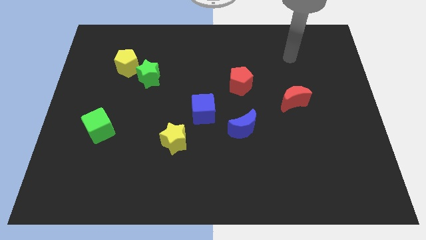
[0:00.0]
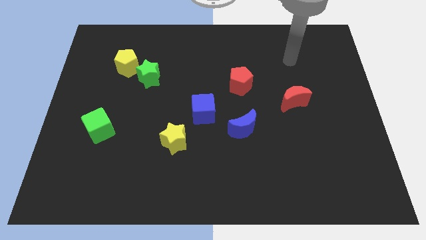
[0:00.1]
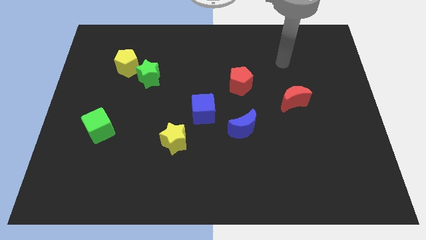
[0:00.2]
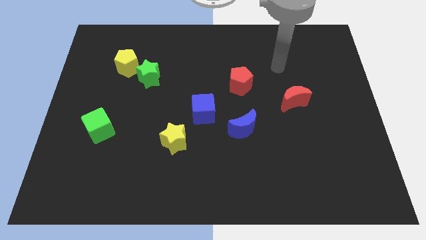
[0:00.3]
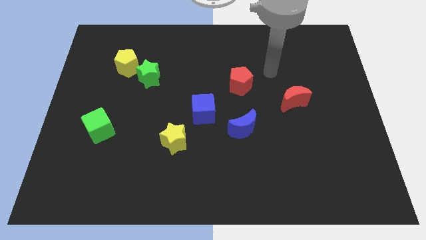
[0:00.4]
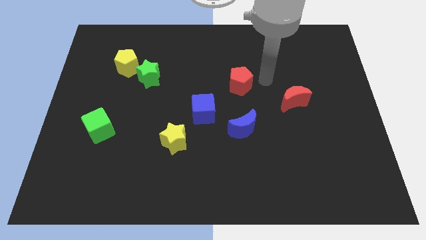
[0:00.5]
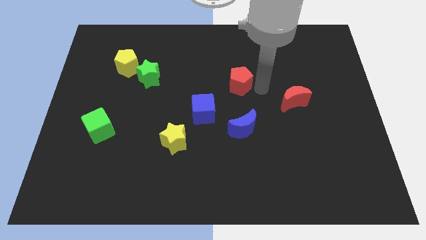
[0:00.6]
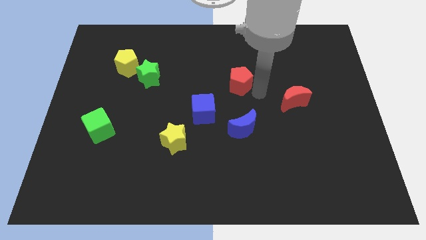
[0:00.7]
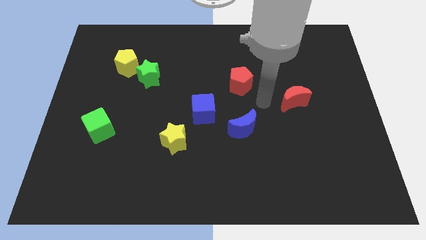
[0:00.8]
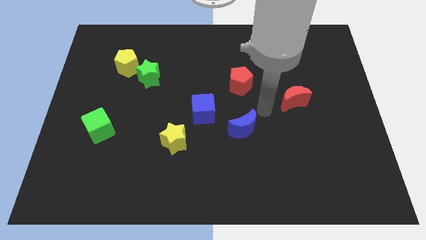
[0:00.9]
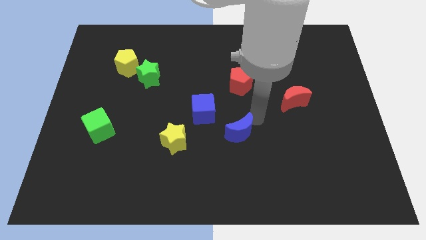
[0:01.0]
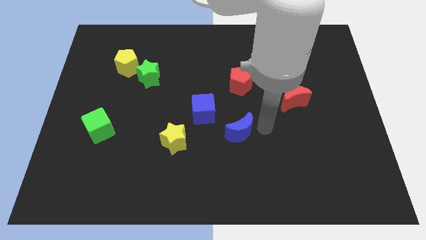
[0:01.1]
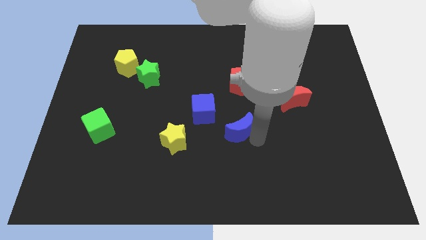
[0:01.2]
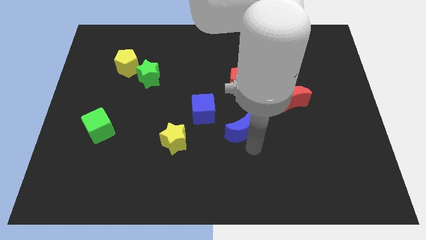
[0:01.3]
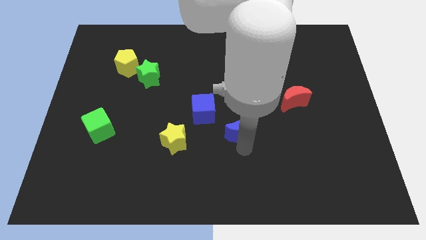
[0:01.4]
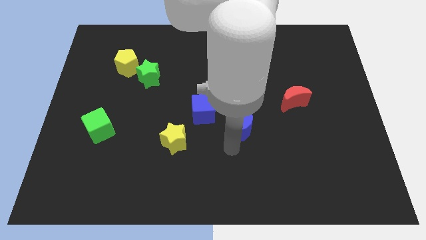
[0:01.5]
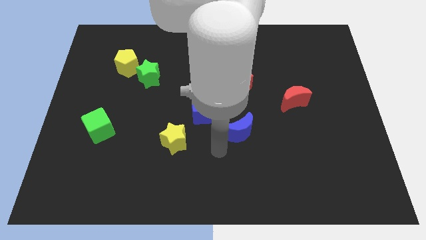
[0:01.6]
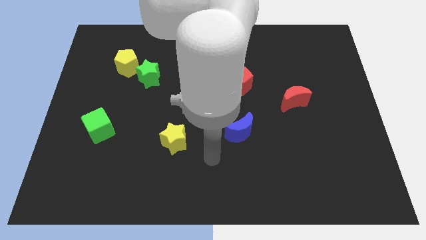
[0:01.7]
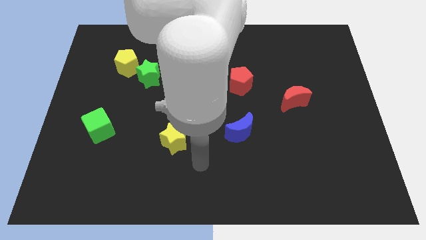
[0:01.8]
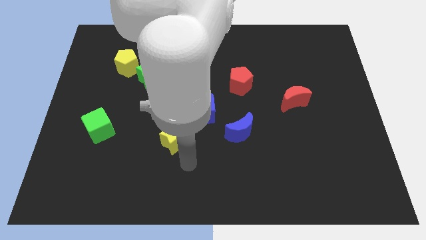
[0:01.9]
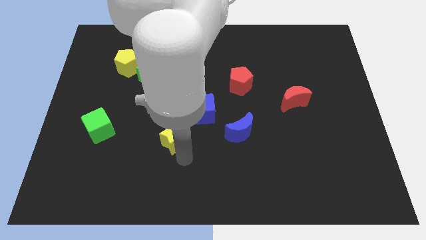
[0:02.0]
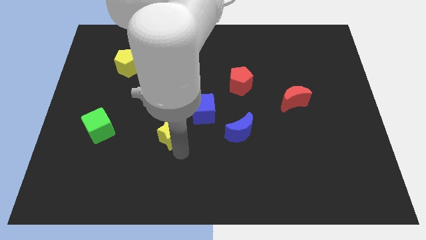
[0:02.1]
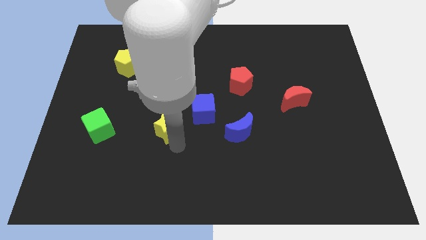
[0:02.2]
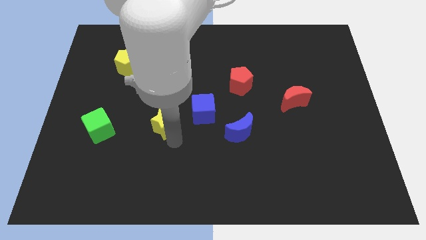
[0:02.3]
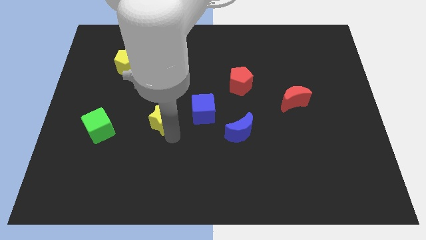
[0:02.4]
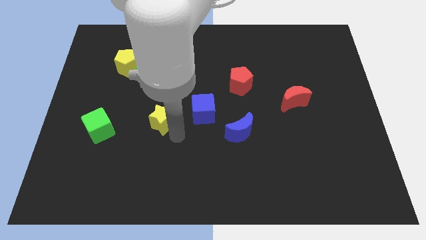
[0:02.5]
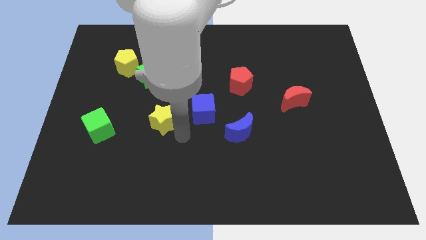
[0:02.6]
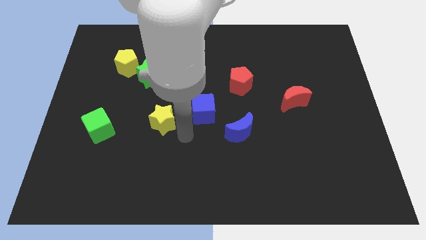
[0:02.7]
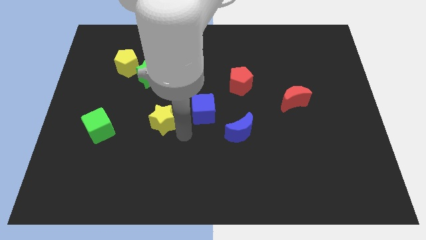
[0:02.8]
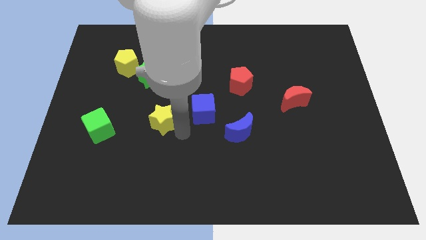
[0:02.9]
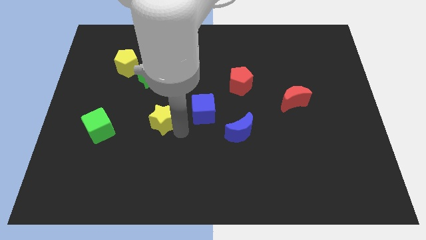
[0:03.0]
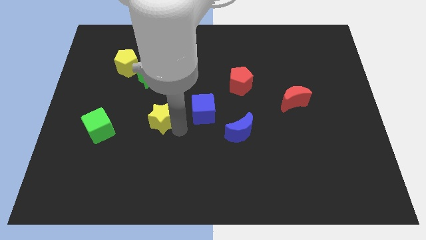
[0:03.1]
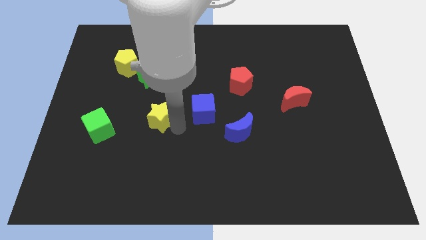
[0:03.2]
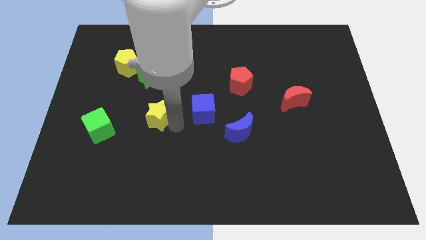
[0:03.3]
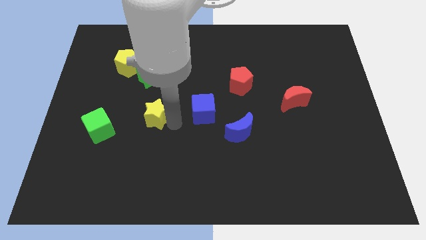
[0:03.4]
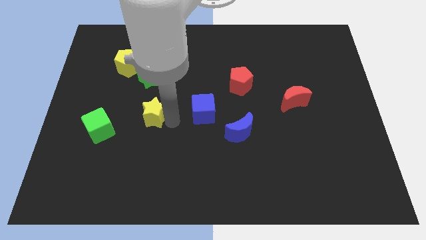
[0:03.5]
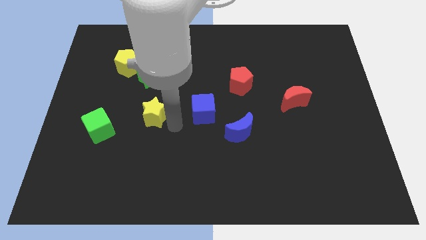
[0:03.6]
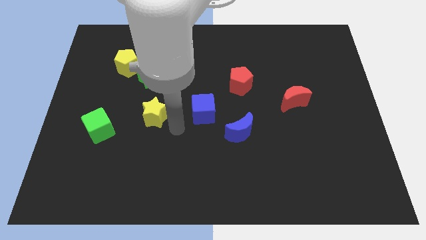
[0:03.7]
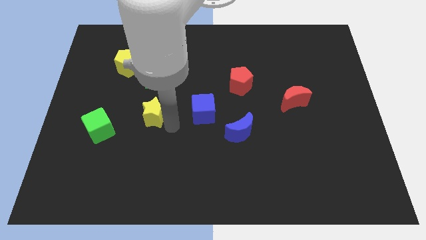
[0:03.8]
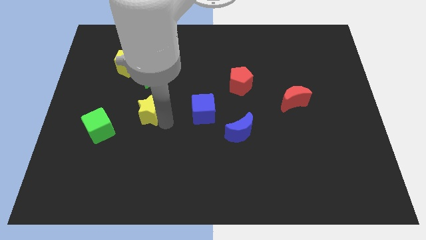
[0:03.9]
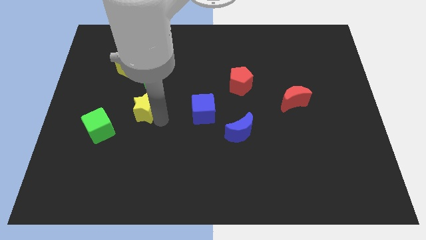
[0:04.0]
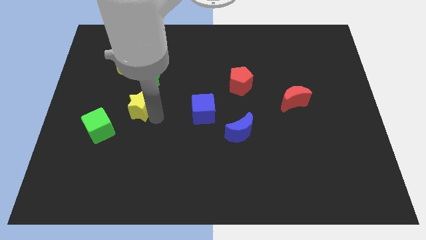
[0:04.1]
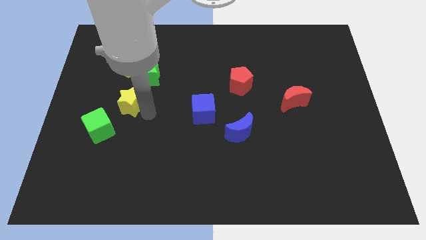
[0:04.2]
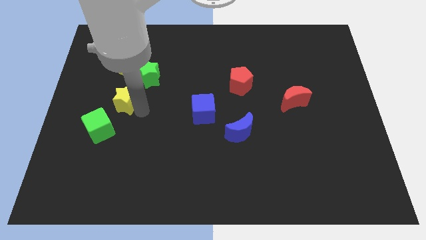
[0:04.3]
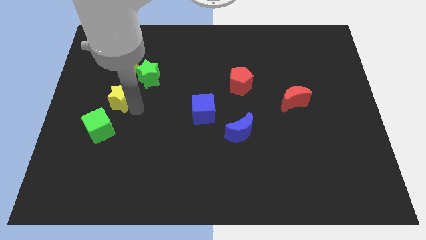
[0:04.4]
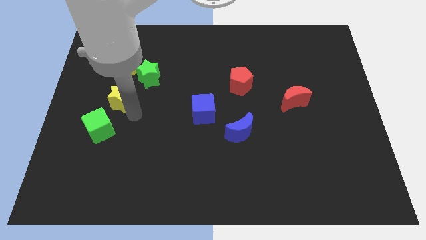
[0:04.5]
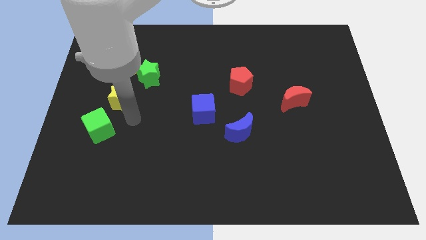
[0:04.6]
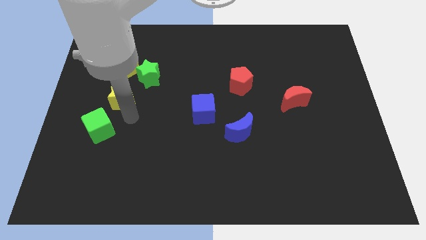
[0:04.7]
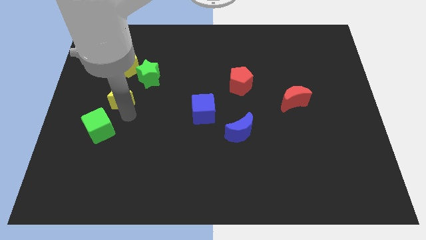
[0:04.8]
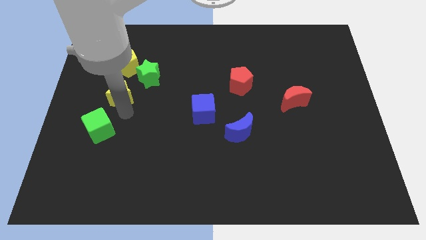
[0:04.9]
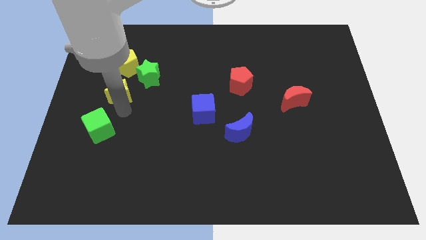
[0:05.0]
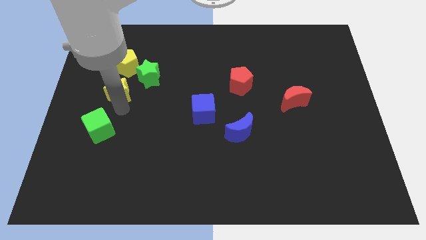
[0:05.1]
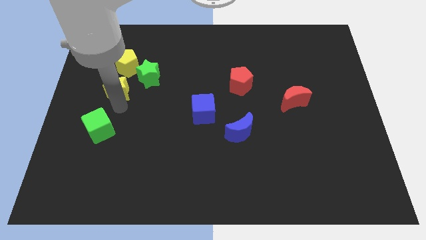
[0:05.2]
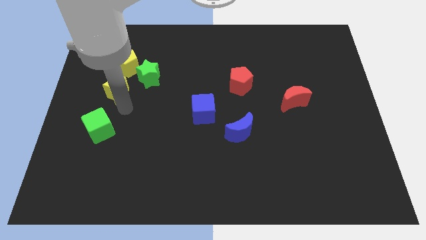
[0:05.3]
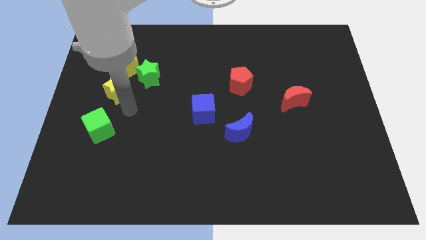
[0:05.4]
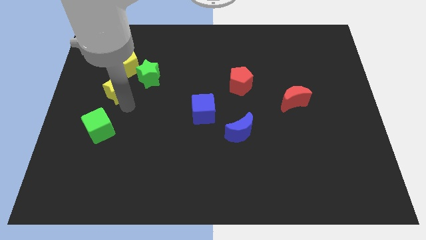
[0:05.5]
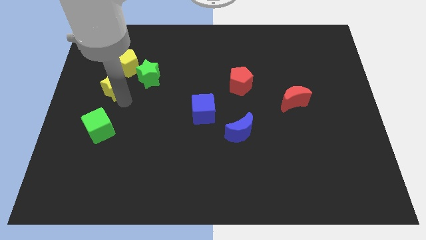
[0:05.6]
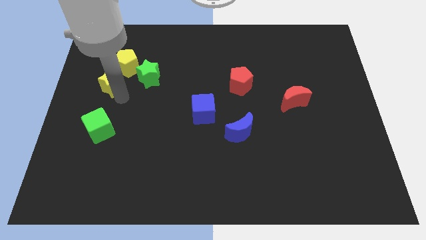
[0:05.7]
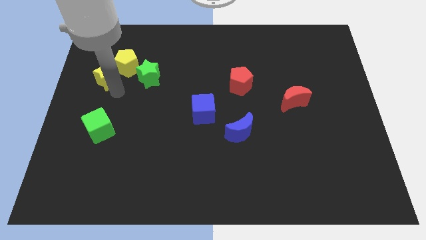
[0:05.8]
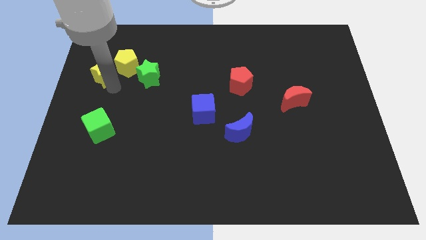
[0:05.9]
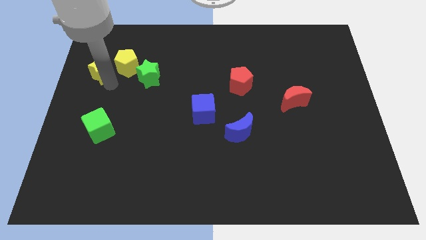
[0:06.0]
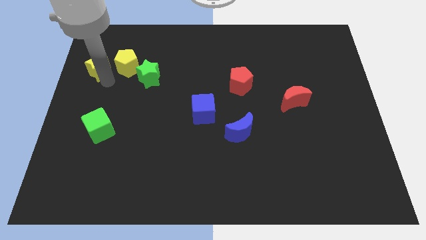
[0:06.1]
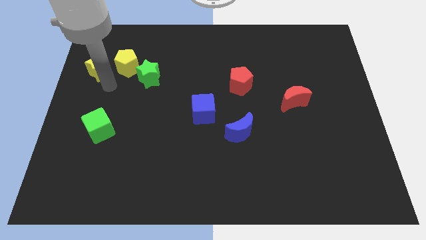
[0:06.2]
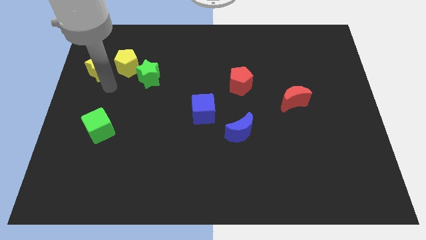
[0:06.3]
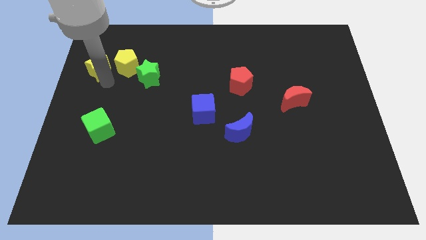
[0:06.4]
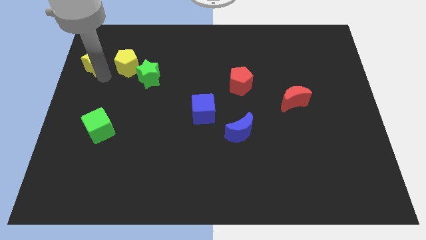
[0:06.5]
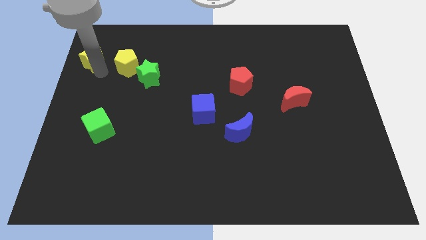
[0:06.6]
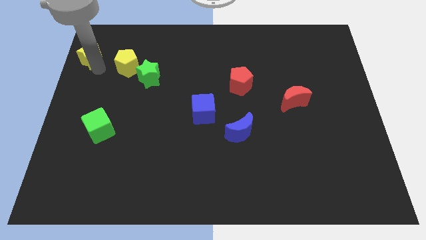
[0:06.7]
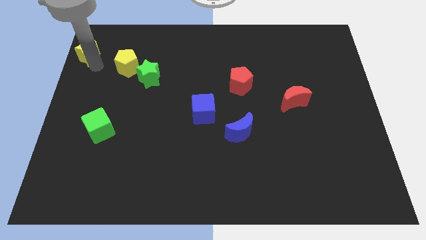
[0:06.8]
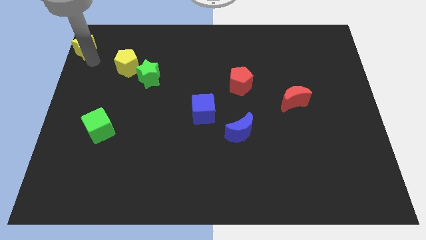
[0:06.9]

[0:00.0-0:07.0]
push the yellow star to the upper left corner
